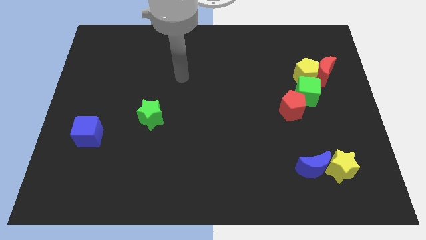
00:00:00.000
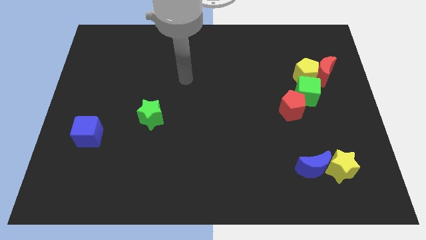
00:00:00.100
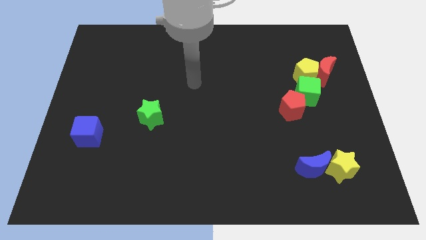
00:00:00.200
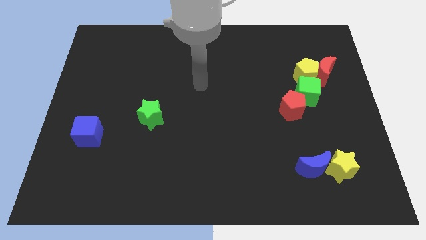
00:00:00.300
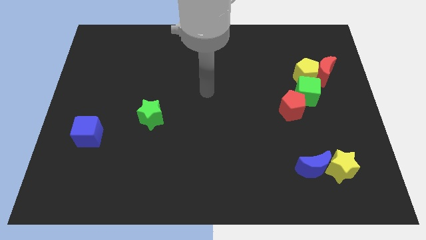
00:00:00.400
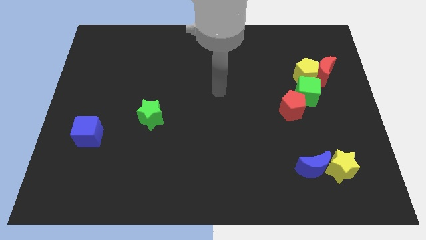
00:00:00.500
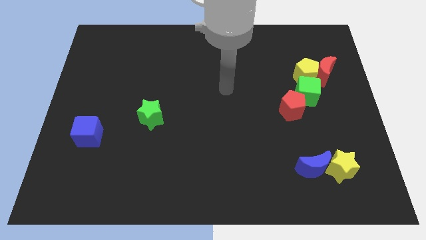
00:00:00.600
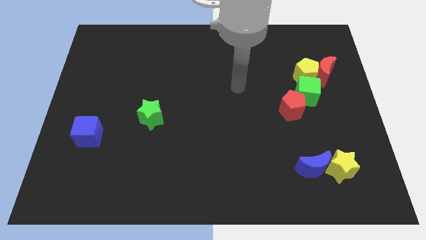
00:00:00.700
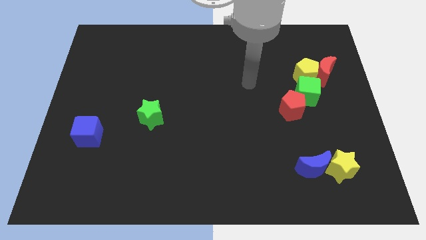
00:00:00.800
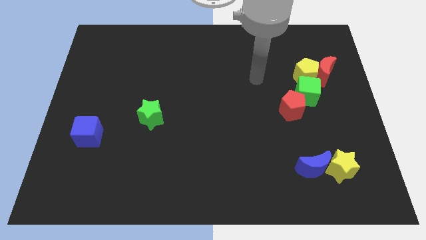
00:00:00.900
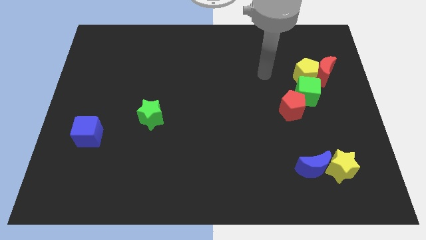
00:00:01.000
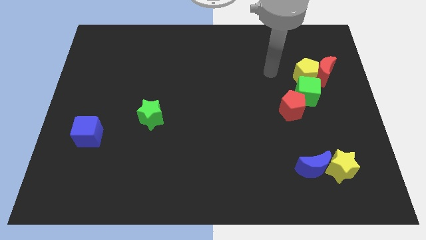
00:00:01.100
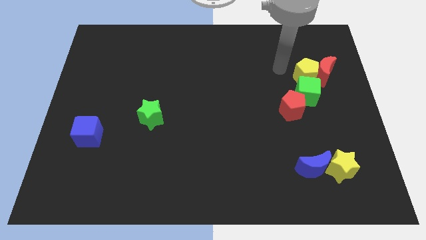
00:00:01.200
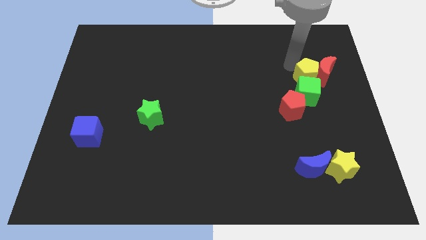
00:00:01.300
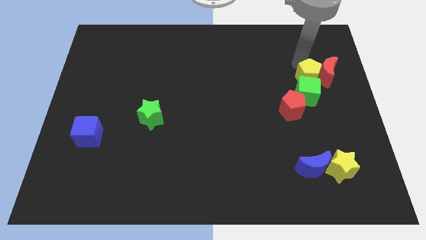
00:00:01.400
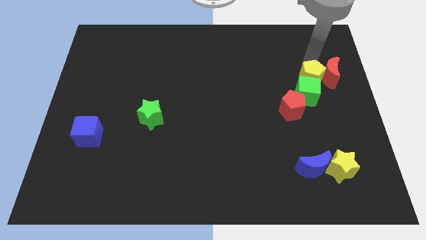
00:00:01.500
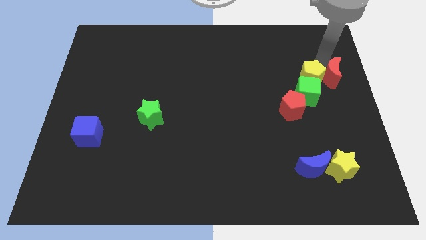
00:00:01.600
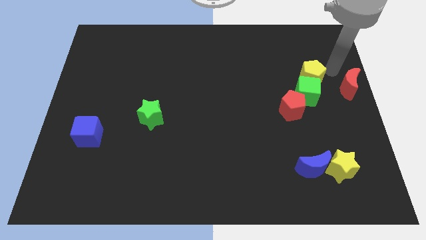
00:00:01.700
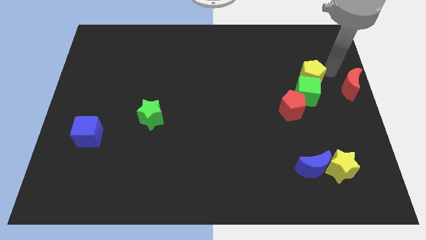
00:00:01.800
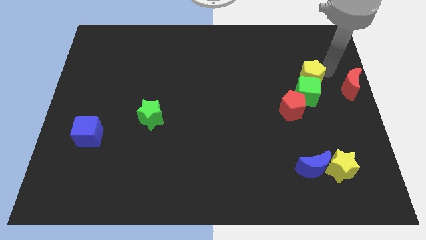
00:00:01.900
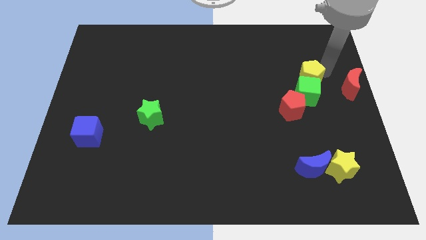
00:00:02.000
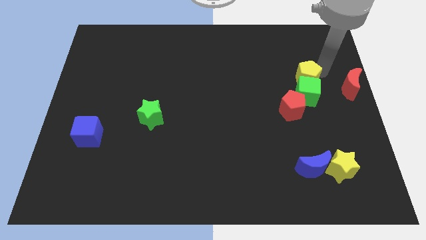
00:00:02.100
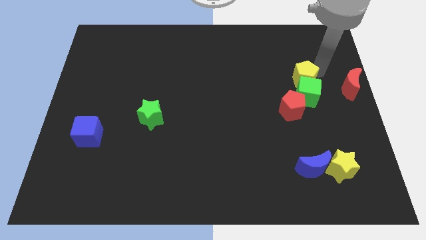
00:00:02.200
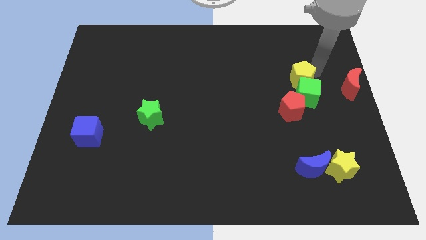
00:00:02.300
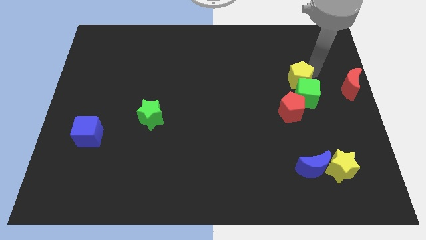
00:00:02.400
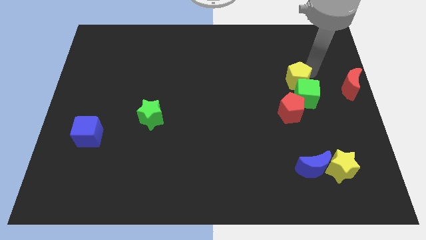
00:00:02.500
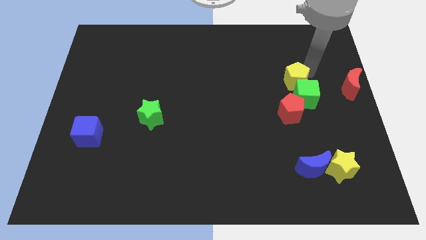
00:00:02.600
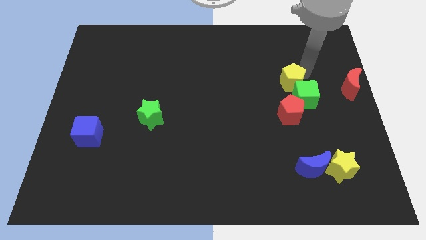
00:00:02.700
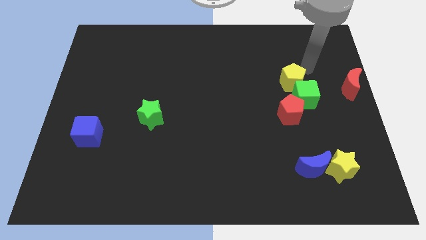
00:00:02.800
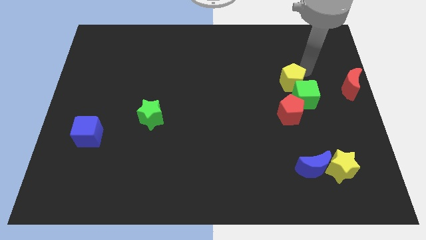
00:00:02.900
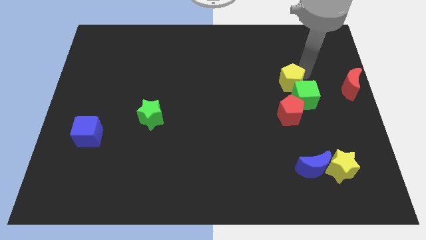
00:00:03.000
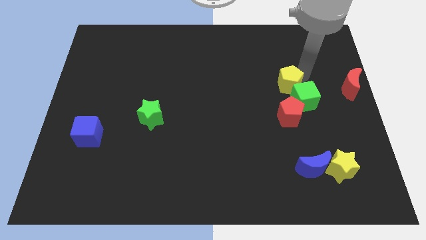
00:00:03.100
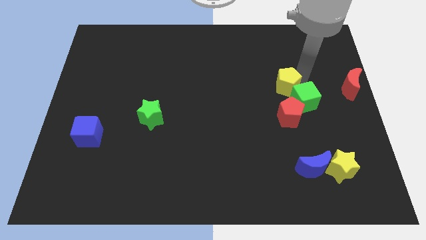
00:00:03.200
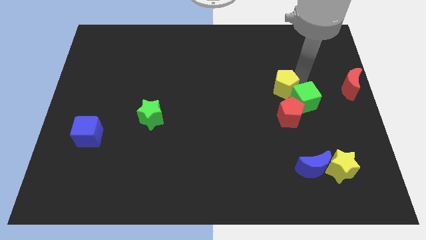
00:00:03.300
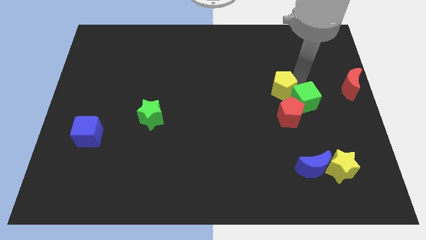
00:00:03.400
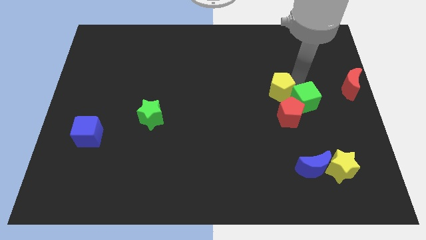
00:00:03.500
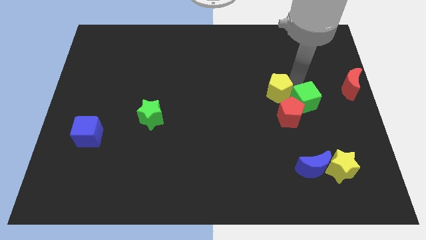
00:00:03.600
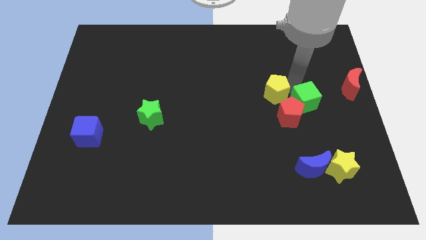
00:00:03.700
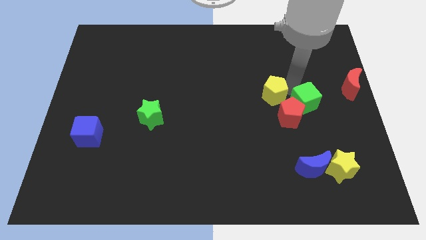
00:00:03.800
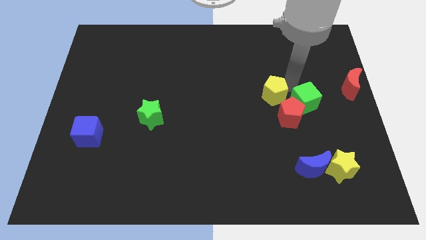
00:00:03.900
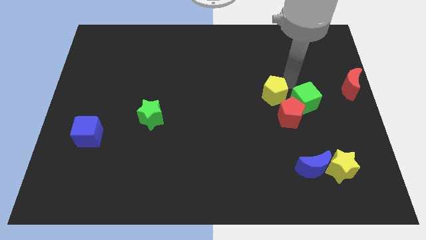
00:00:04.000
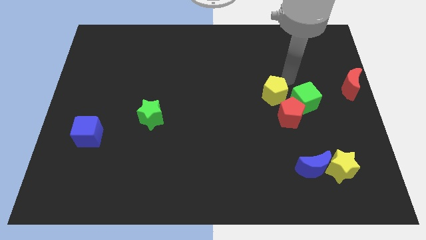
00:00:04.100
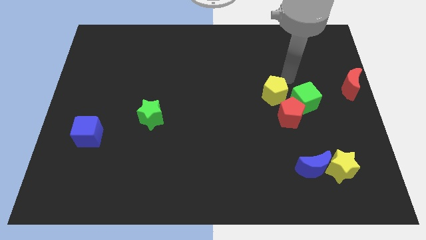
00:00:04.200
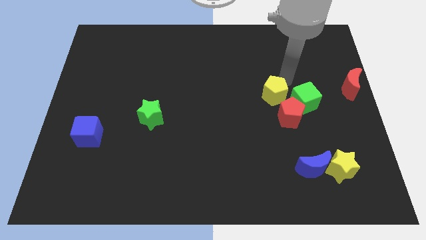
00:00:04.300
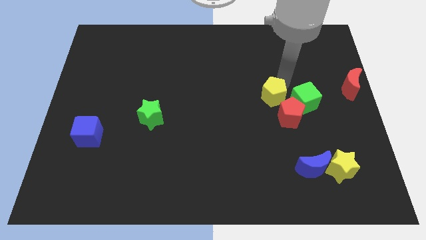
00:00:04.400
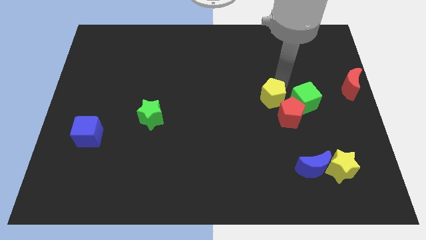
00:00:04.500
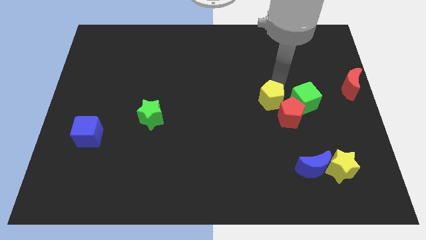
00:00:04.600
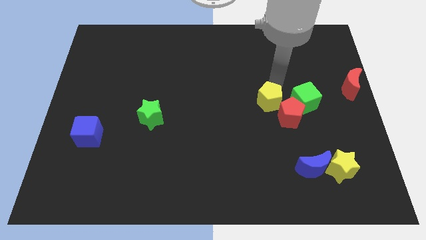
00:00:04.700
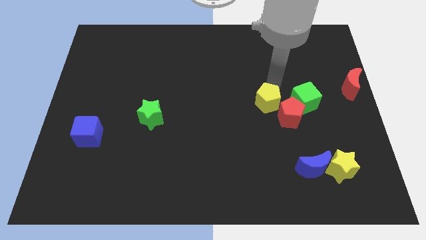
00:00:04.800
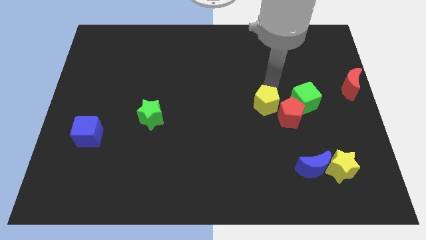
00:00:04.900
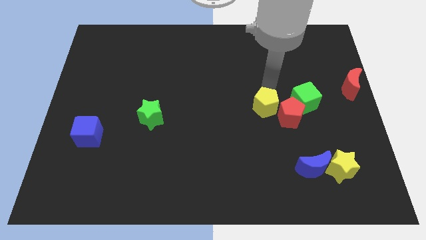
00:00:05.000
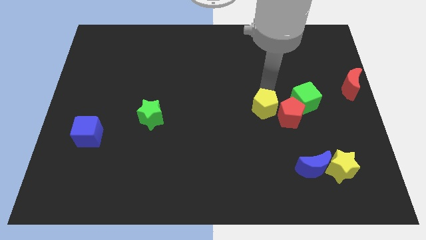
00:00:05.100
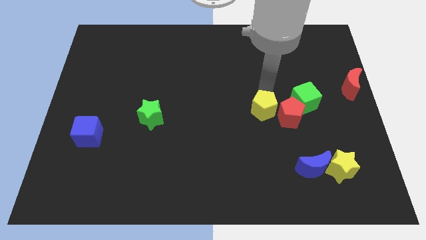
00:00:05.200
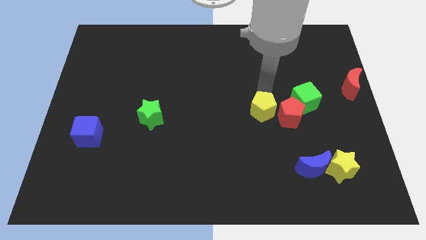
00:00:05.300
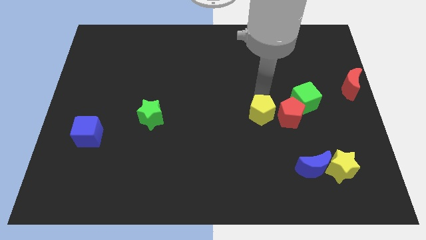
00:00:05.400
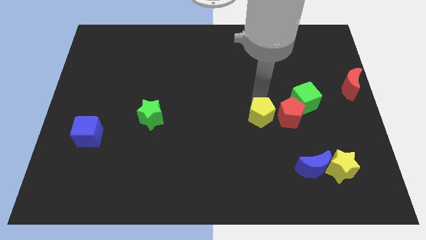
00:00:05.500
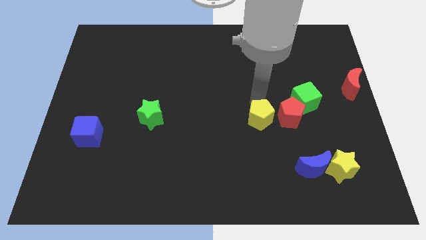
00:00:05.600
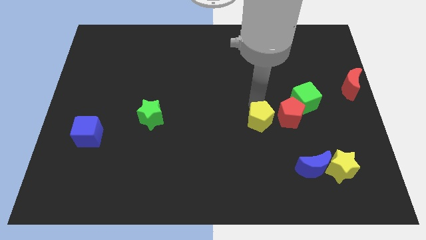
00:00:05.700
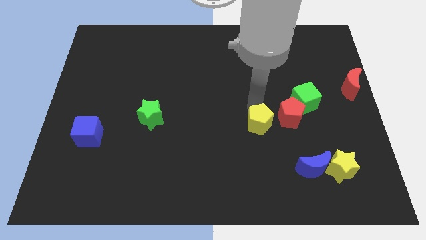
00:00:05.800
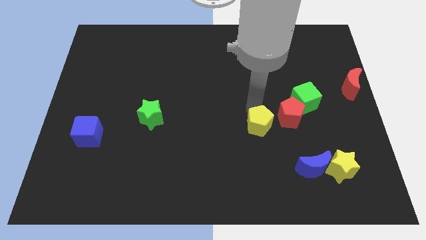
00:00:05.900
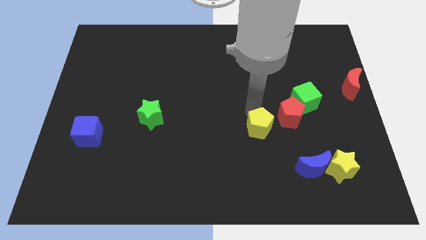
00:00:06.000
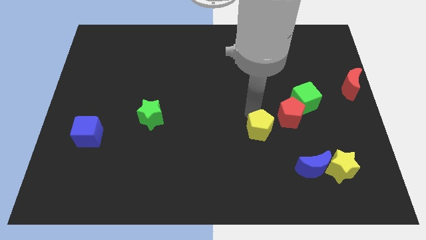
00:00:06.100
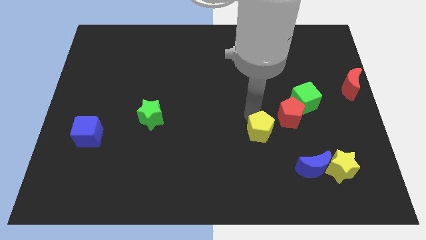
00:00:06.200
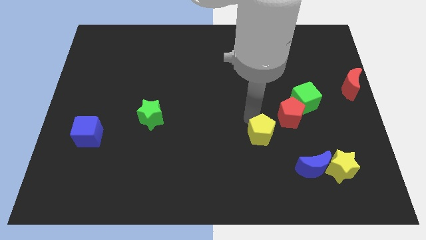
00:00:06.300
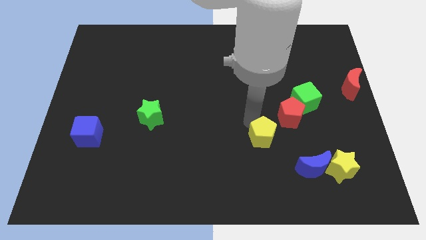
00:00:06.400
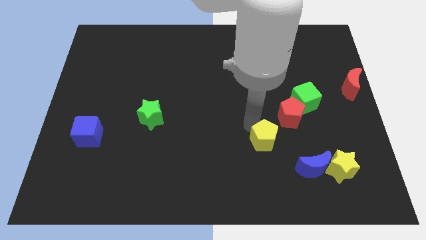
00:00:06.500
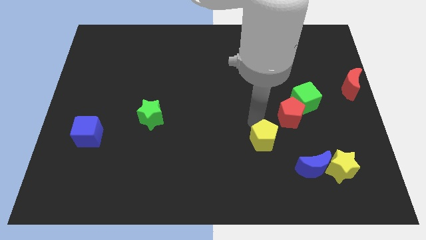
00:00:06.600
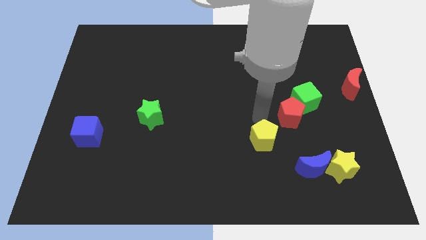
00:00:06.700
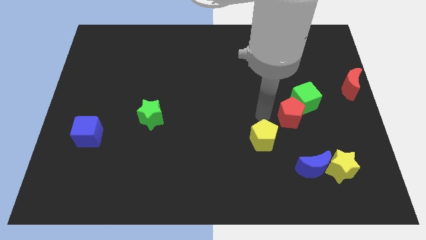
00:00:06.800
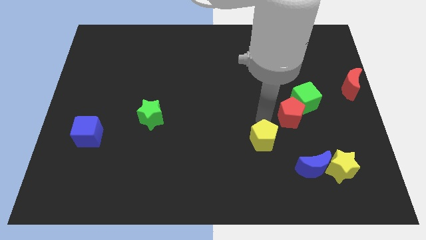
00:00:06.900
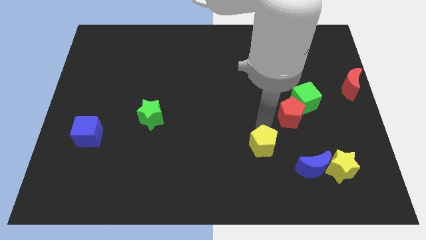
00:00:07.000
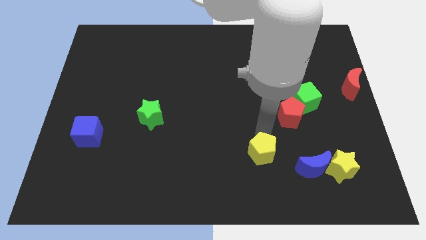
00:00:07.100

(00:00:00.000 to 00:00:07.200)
move the yellow pentagon just left of the blue moon
